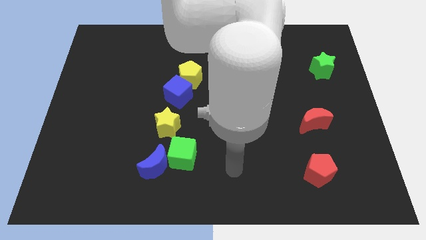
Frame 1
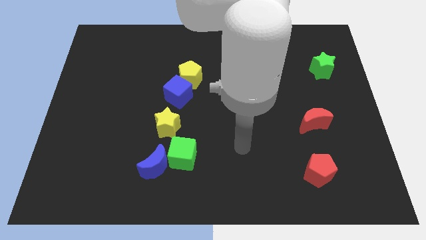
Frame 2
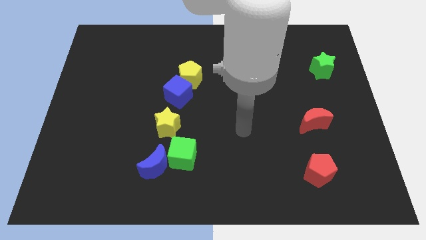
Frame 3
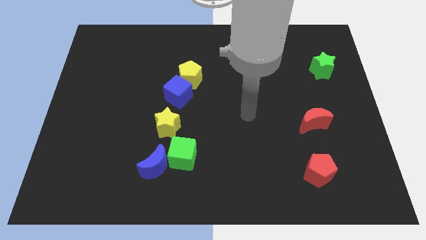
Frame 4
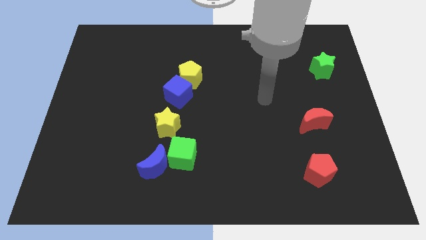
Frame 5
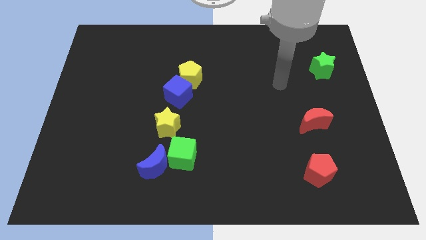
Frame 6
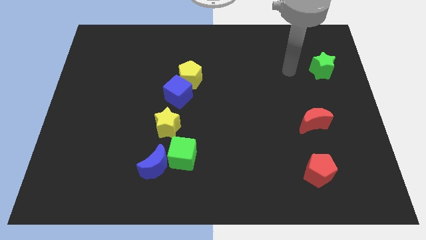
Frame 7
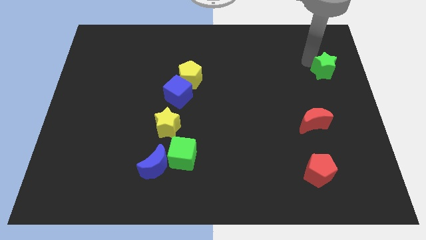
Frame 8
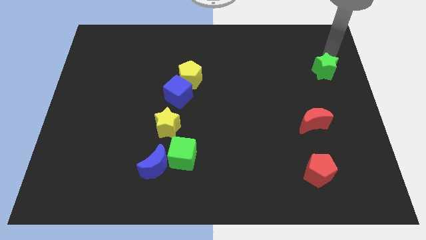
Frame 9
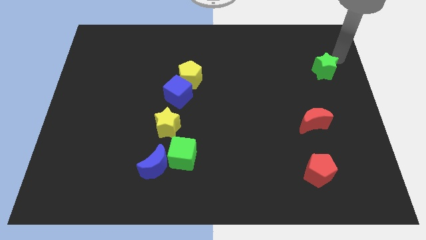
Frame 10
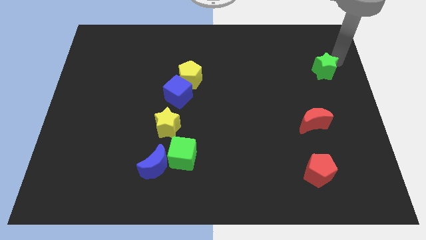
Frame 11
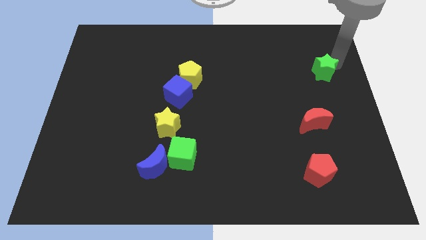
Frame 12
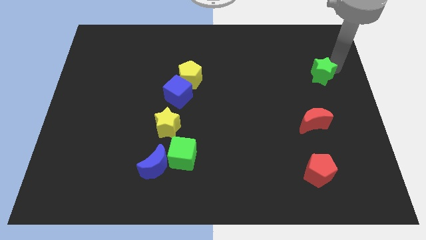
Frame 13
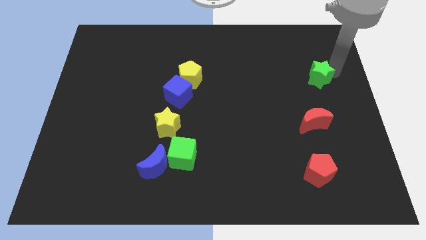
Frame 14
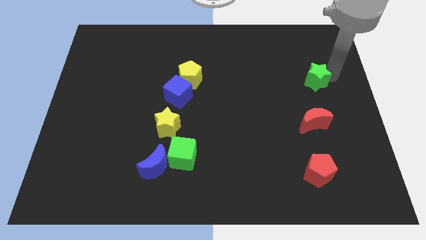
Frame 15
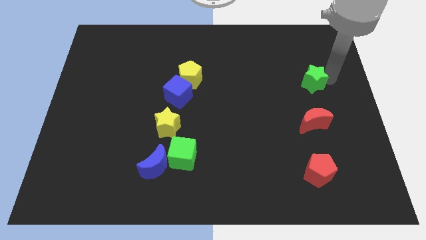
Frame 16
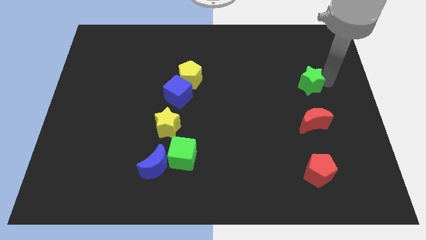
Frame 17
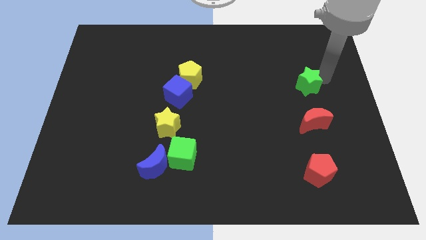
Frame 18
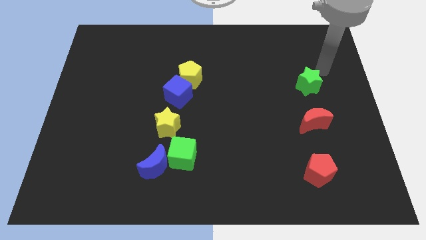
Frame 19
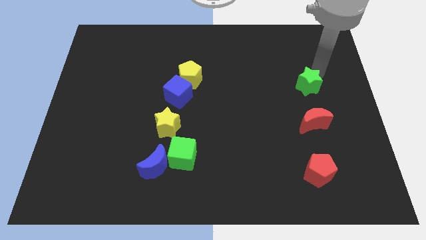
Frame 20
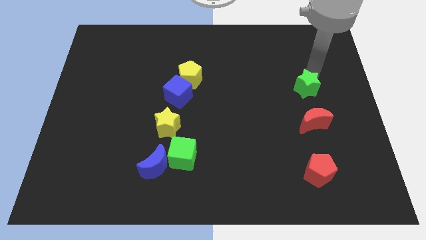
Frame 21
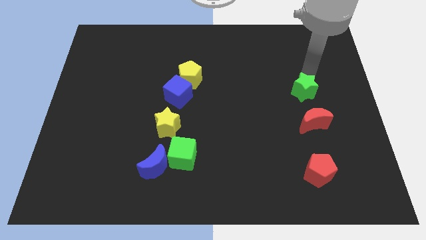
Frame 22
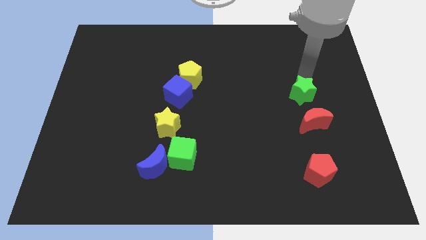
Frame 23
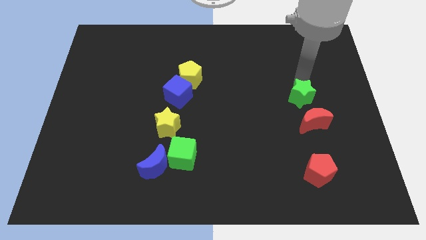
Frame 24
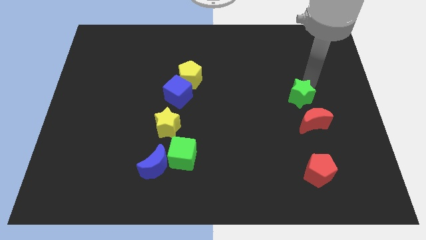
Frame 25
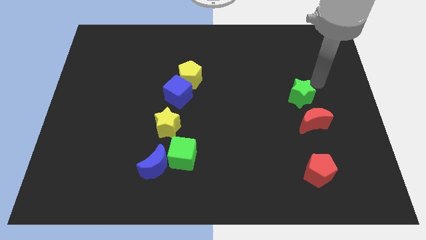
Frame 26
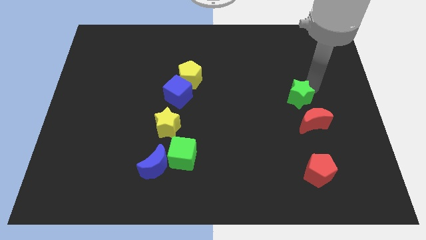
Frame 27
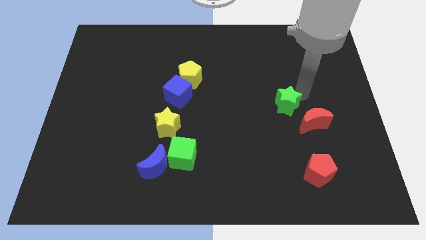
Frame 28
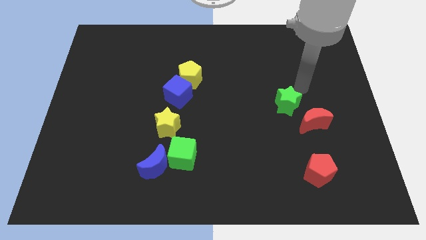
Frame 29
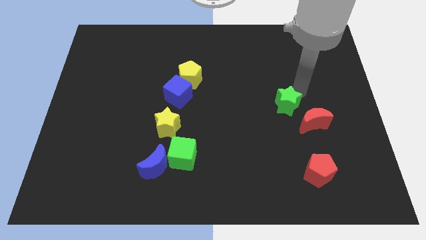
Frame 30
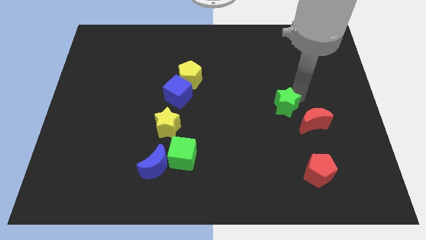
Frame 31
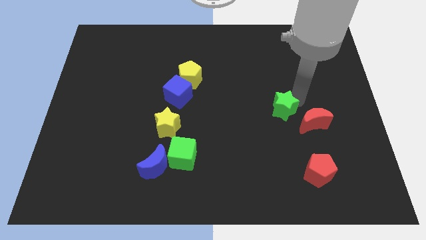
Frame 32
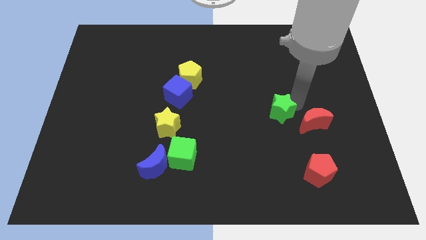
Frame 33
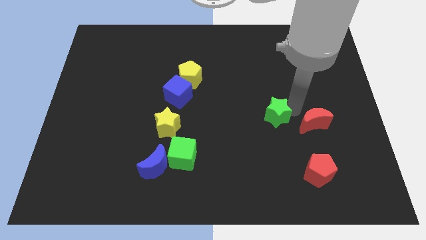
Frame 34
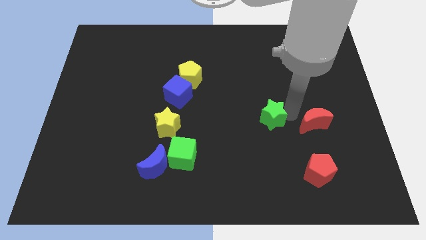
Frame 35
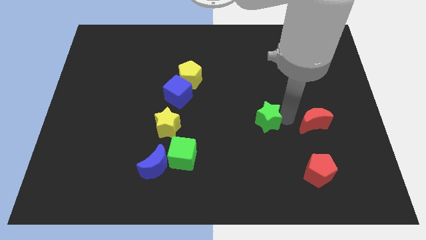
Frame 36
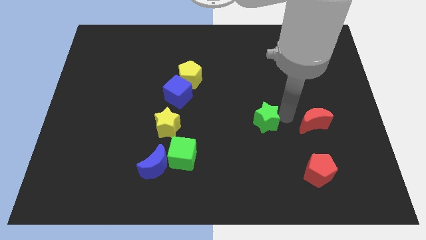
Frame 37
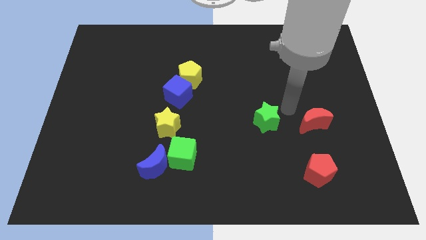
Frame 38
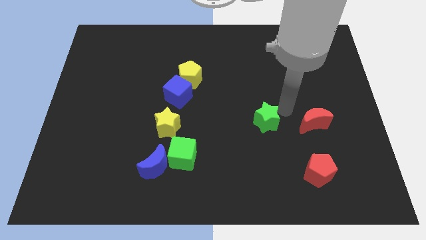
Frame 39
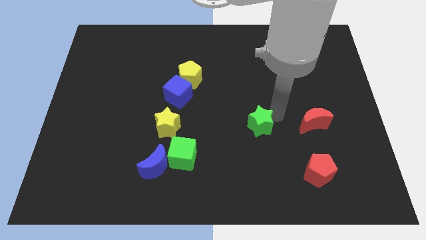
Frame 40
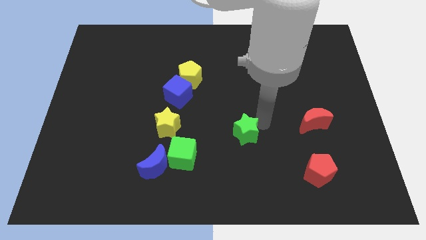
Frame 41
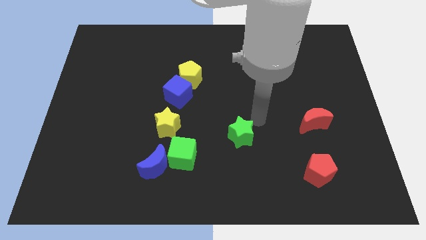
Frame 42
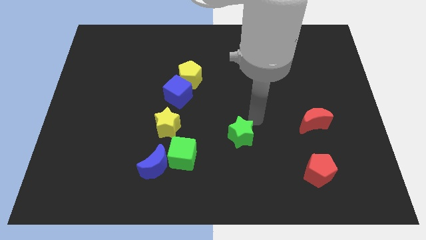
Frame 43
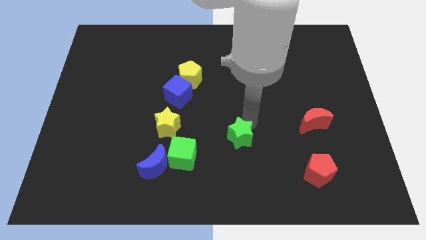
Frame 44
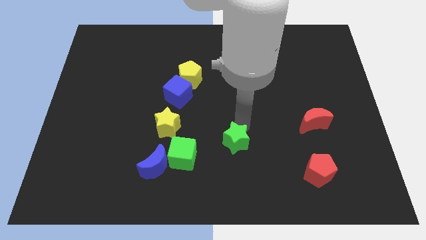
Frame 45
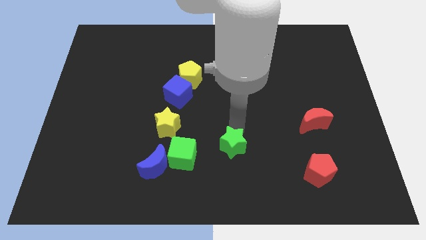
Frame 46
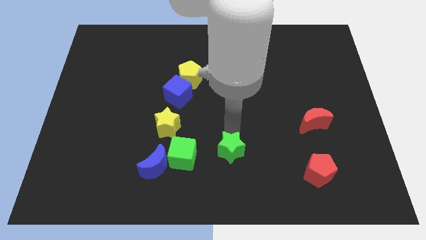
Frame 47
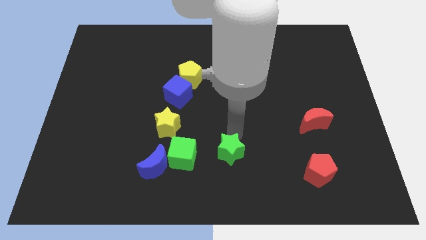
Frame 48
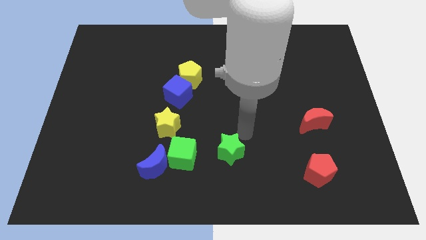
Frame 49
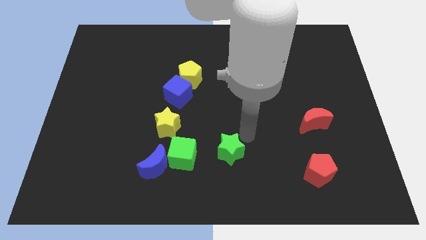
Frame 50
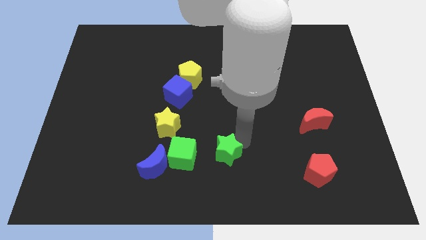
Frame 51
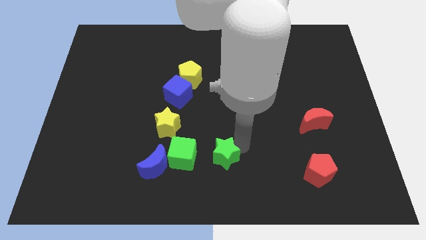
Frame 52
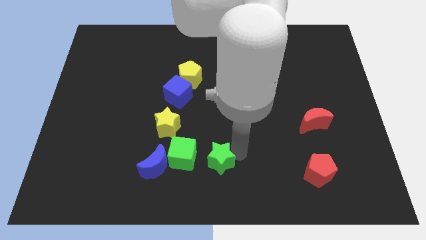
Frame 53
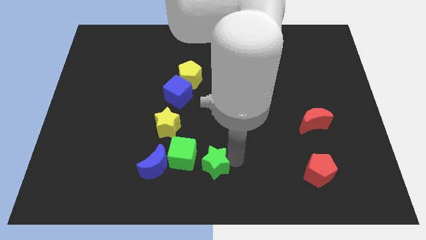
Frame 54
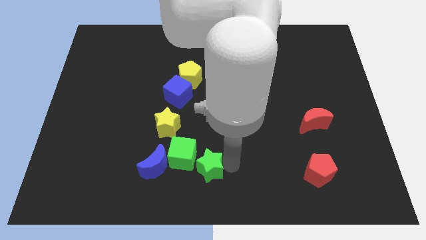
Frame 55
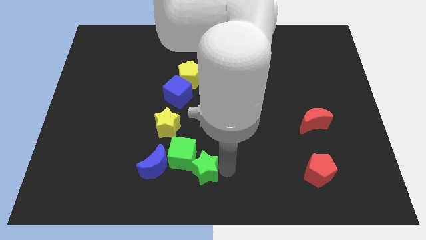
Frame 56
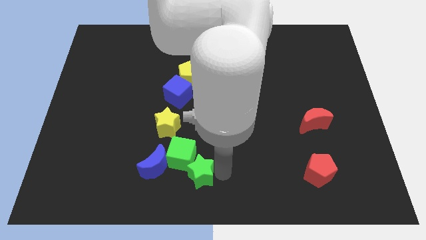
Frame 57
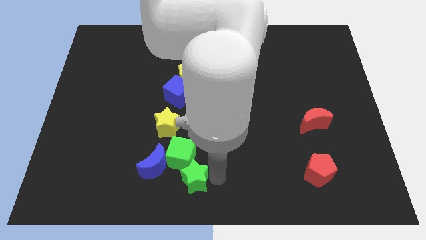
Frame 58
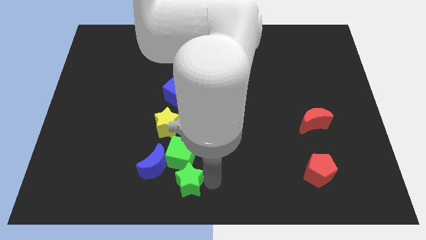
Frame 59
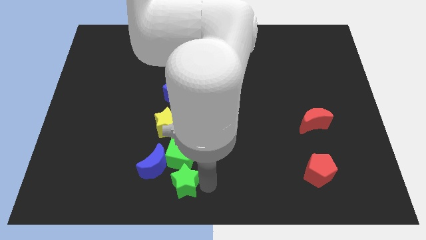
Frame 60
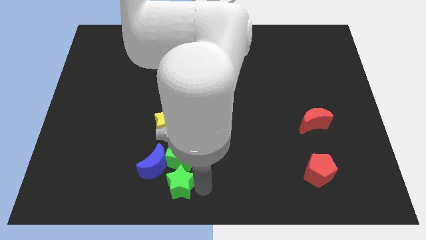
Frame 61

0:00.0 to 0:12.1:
move the green star diagonally down and to the left of the green cube
